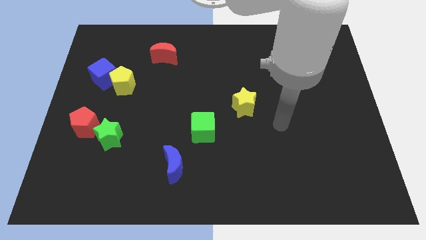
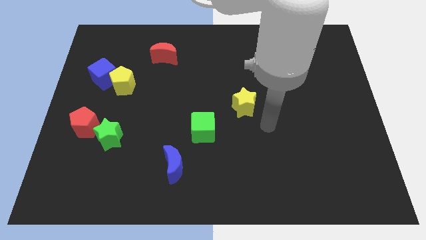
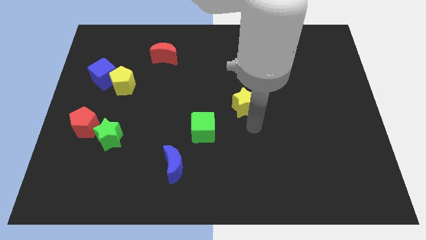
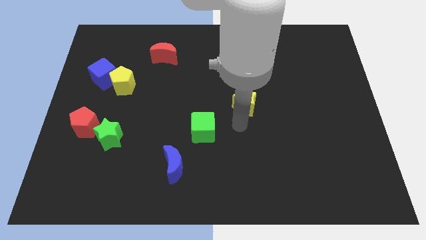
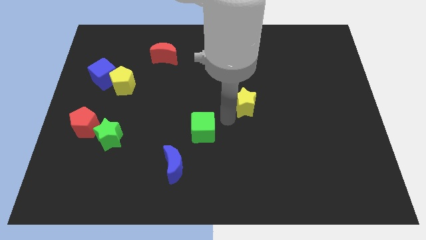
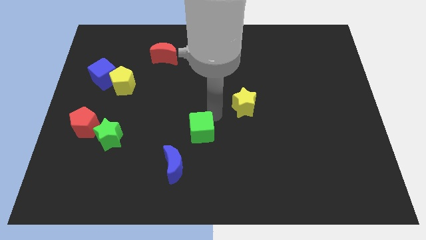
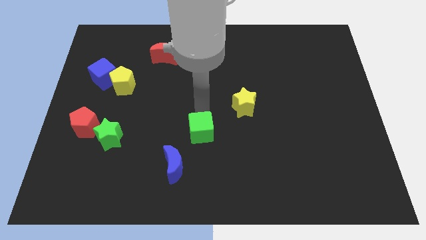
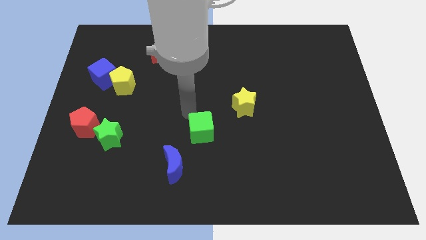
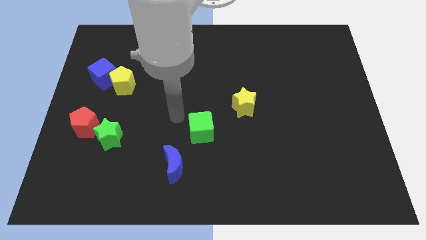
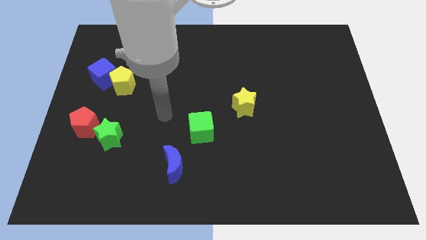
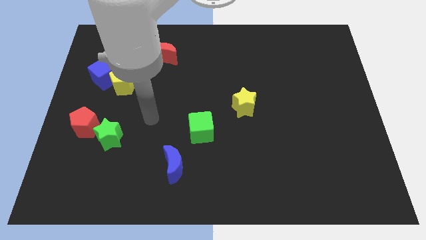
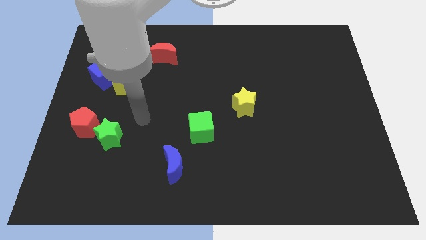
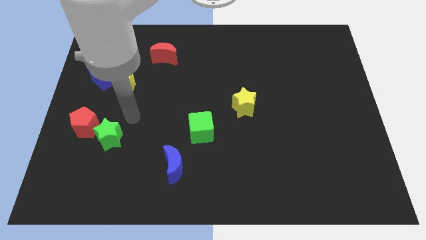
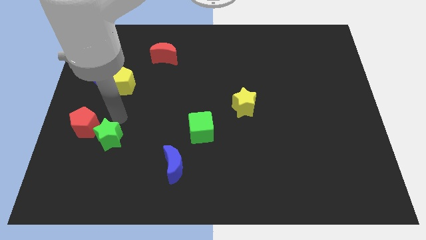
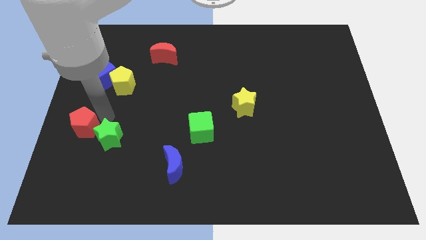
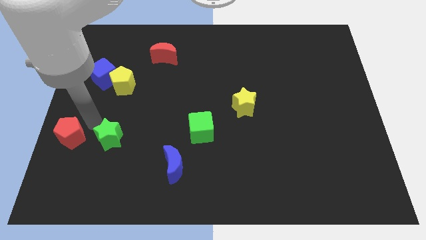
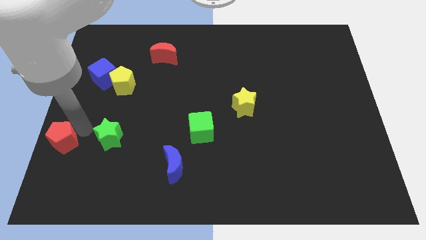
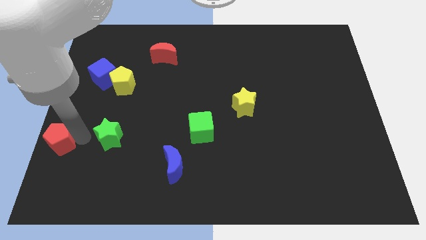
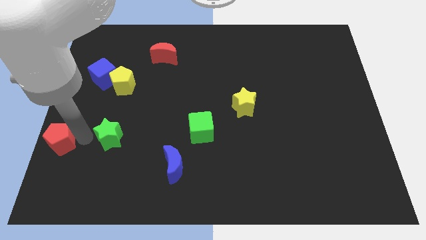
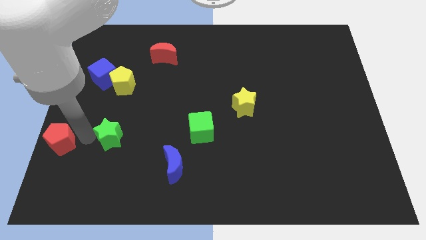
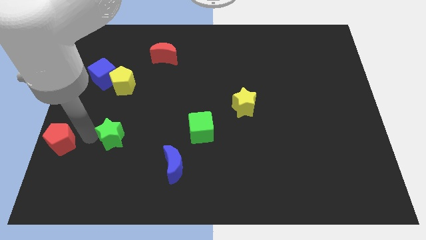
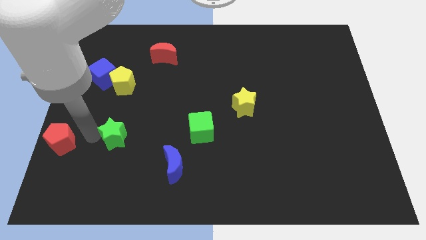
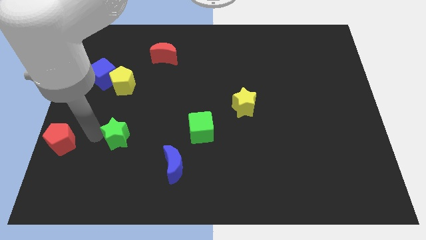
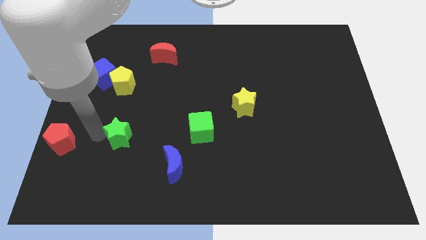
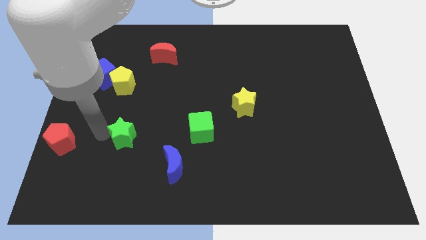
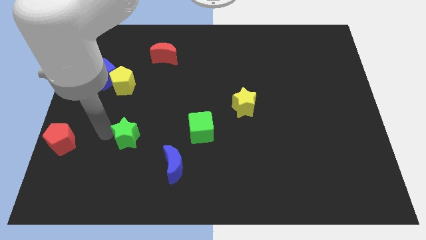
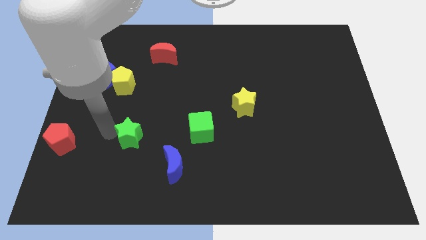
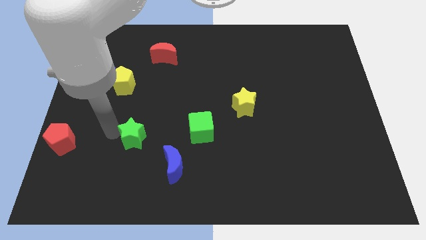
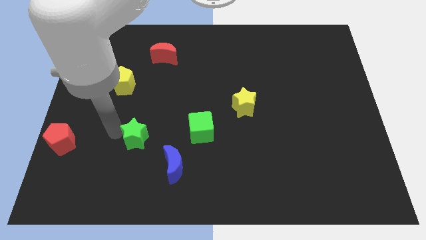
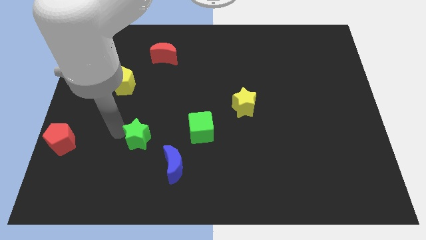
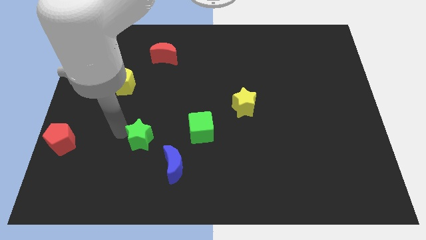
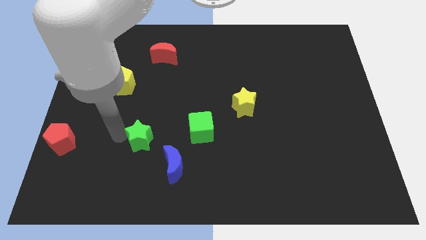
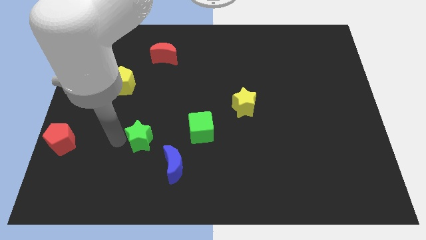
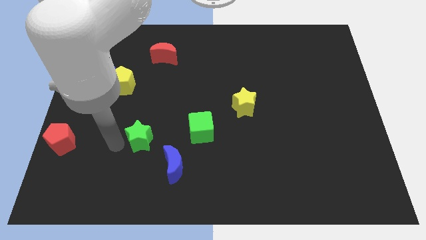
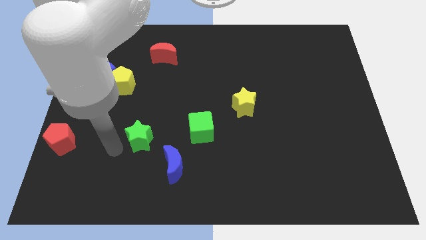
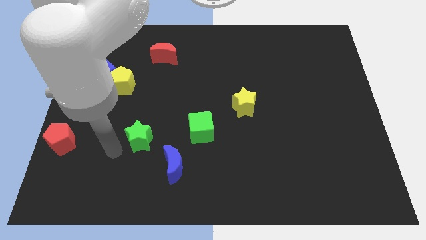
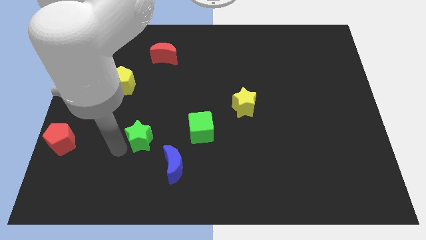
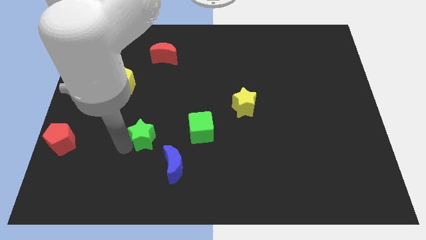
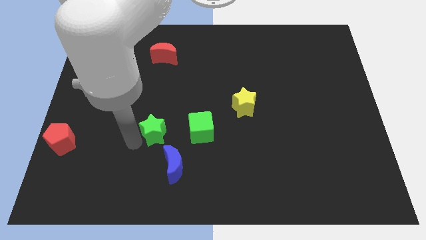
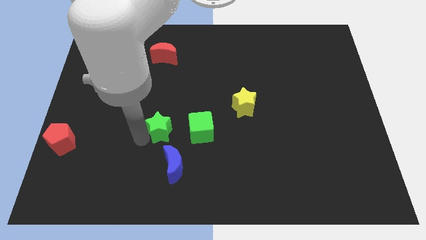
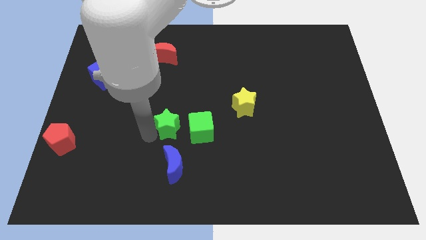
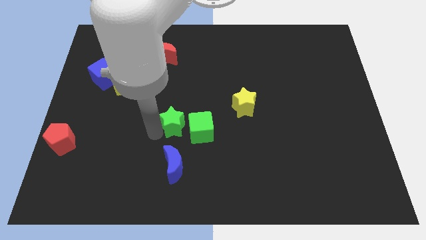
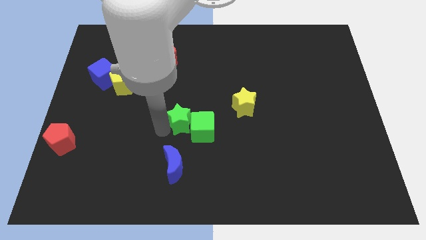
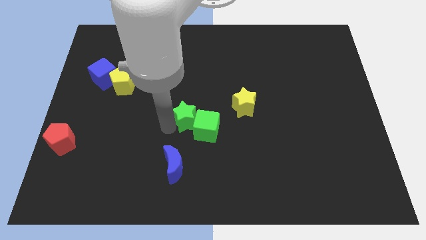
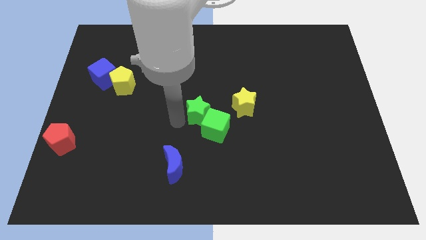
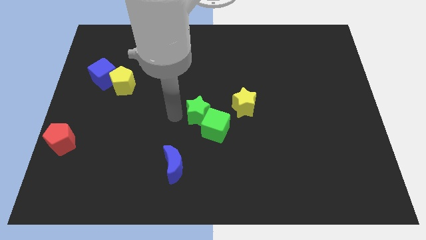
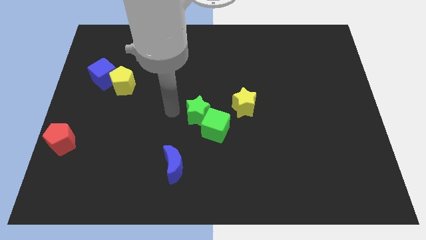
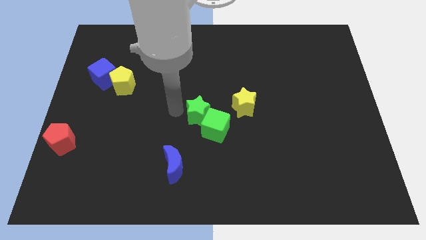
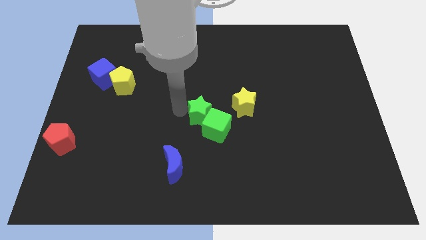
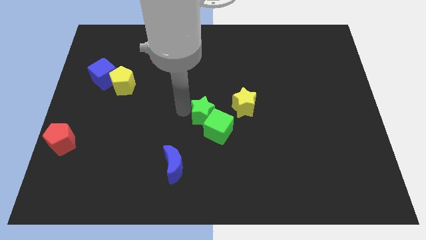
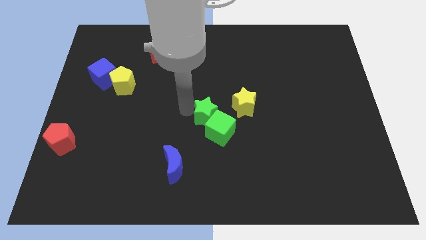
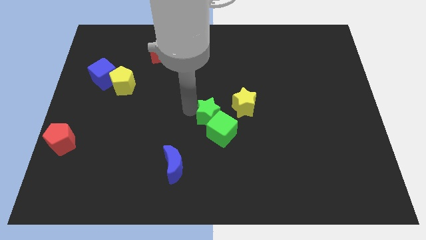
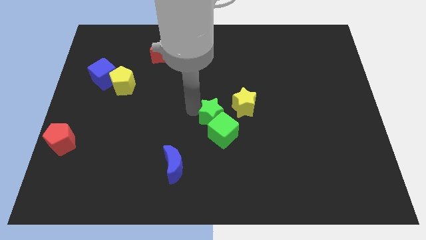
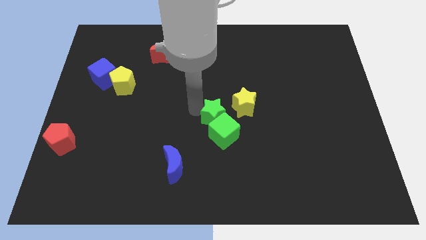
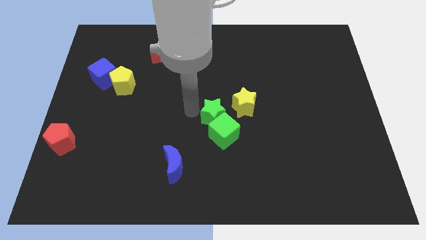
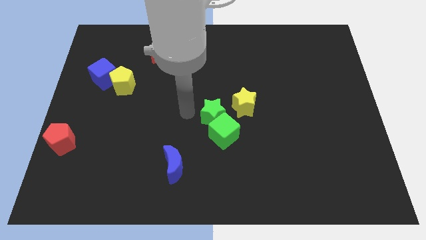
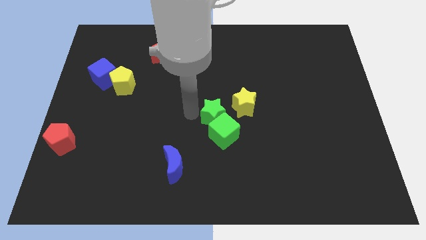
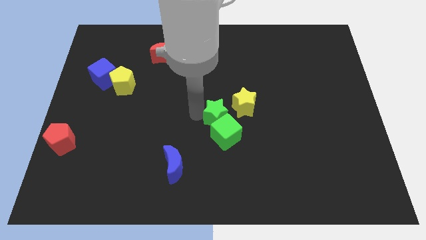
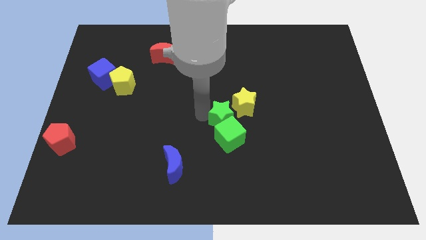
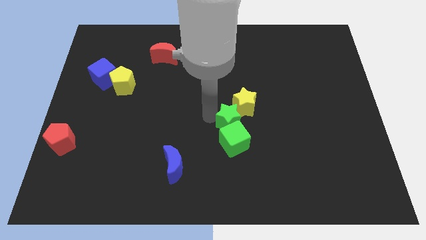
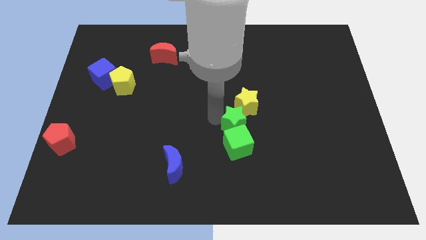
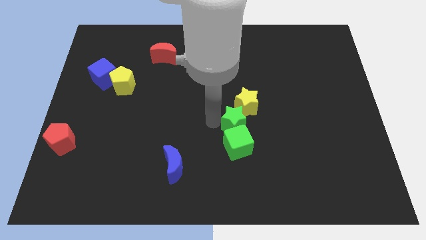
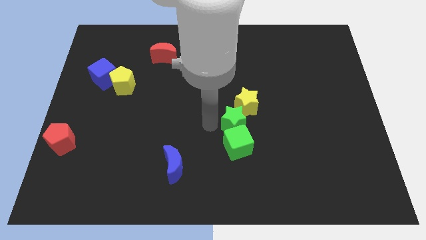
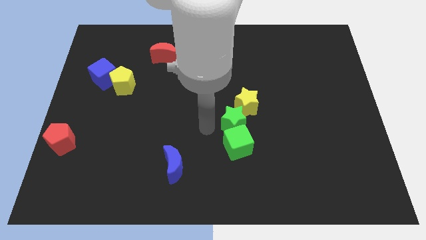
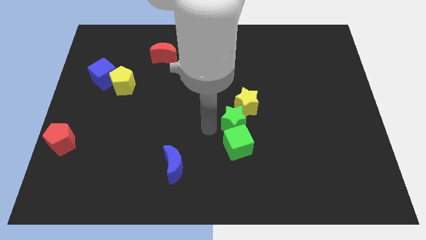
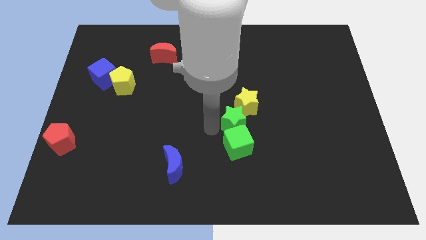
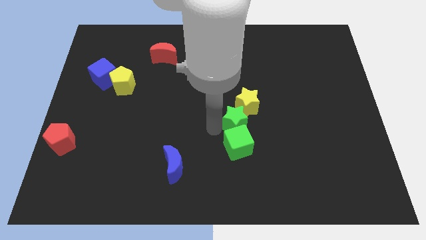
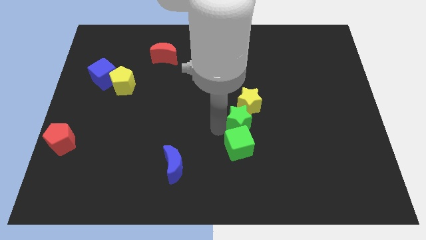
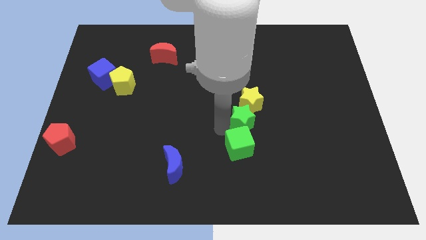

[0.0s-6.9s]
move the green star to the bottom right side of the yellow star
